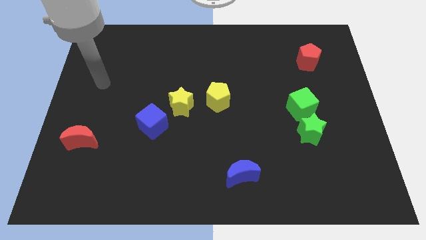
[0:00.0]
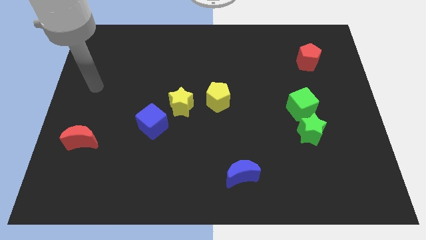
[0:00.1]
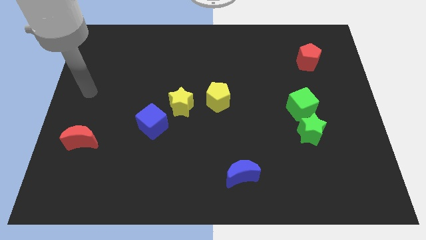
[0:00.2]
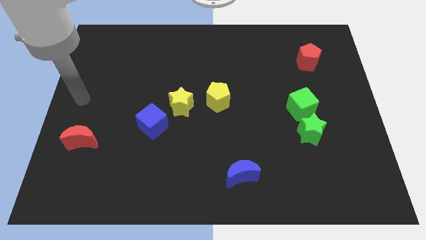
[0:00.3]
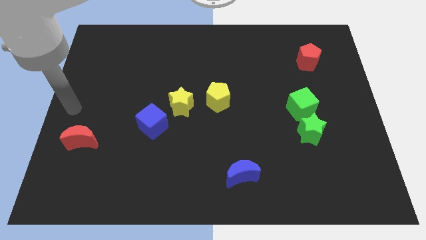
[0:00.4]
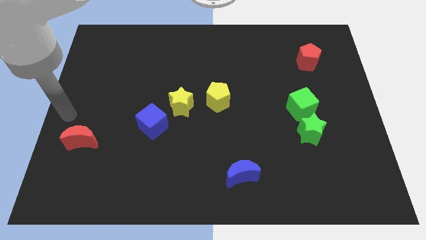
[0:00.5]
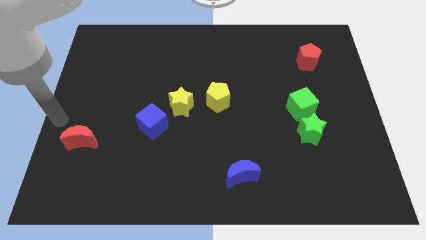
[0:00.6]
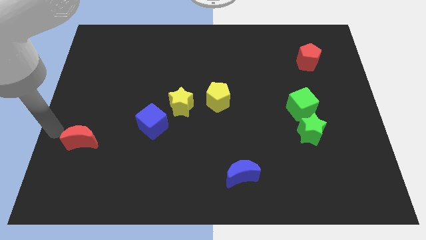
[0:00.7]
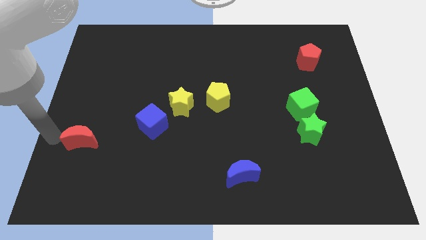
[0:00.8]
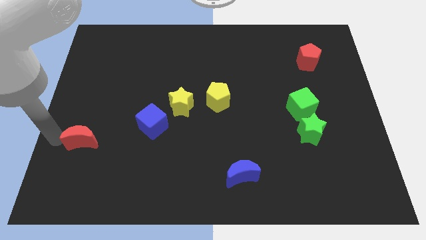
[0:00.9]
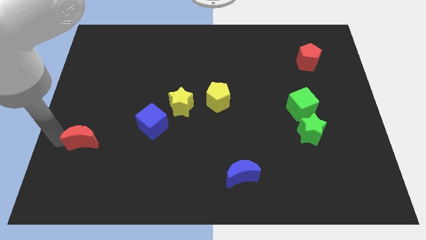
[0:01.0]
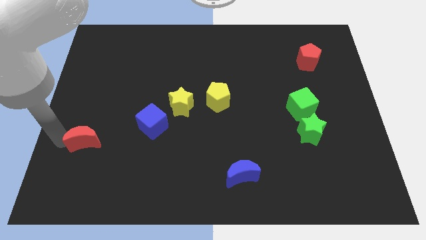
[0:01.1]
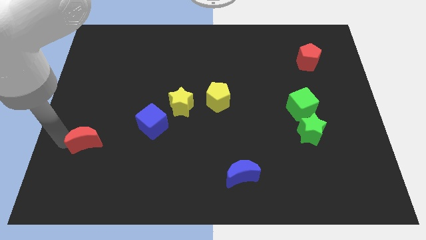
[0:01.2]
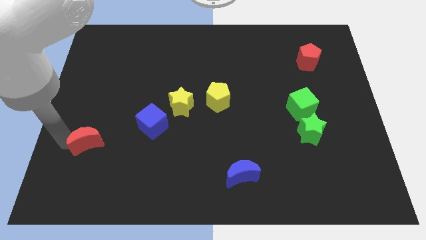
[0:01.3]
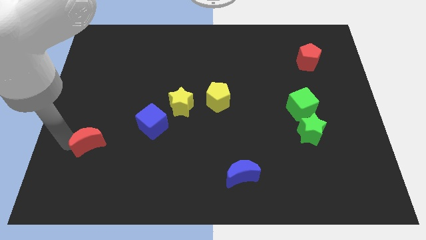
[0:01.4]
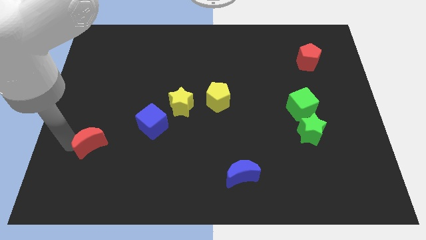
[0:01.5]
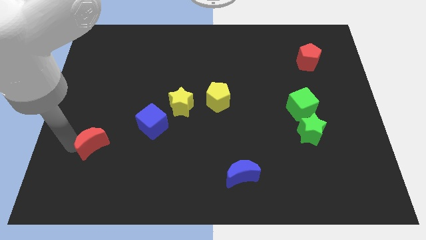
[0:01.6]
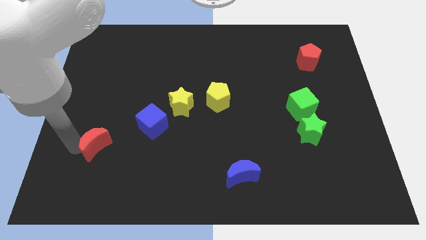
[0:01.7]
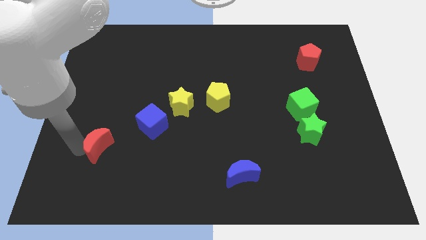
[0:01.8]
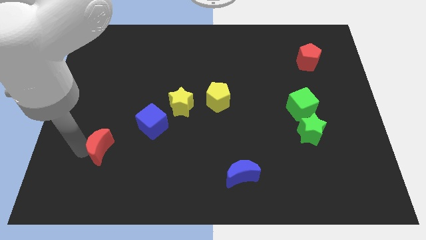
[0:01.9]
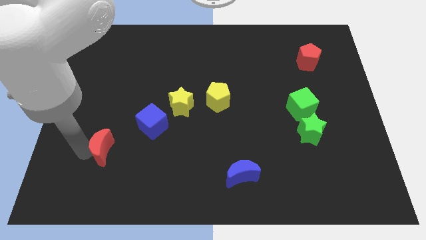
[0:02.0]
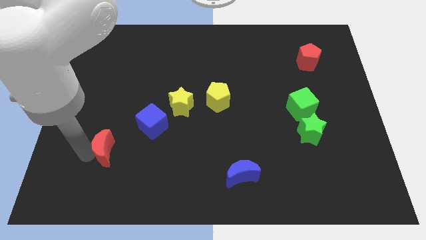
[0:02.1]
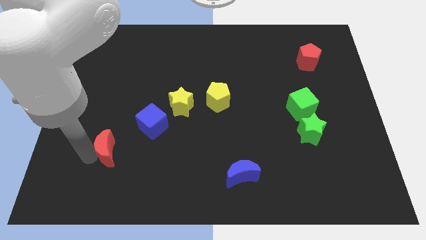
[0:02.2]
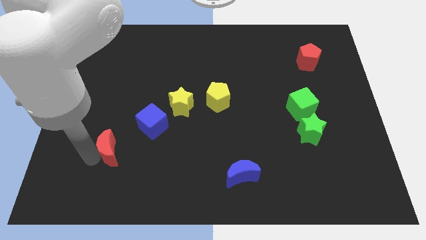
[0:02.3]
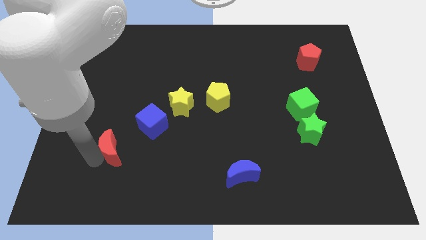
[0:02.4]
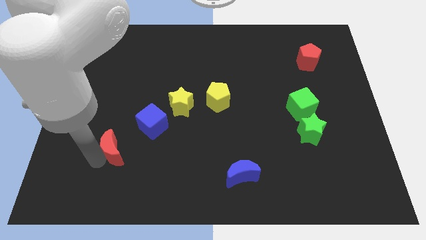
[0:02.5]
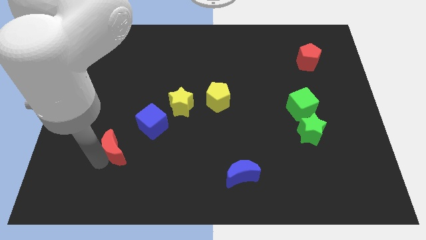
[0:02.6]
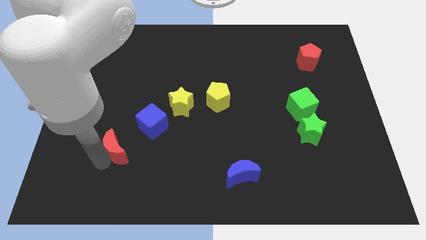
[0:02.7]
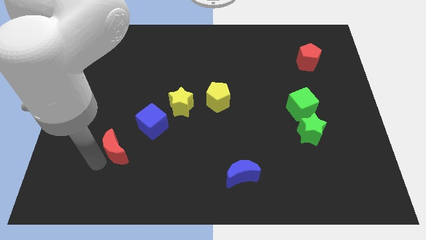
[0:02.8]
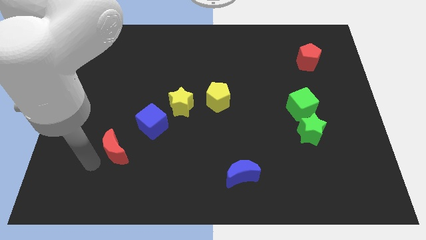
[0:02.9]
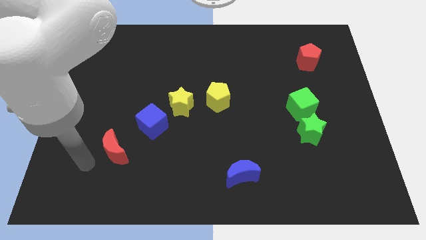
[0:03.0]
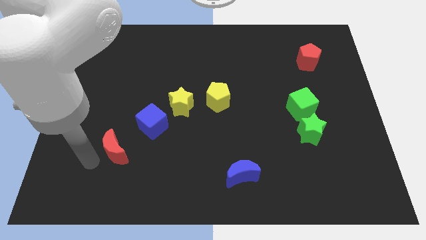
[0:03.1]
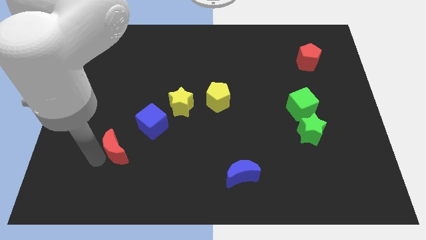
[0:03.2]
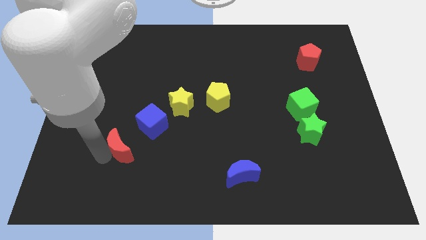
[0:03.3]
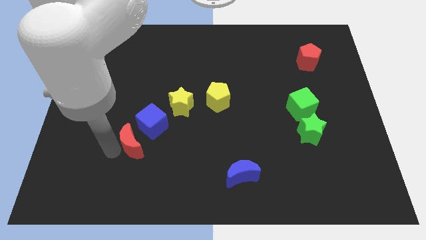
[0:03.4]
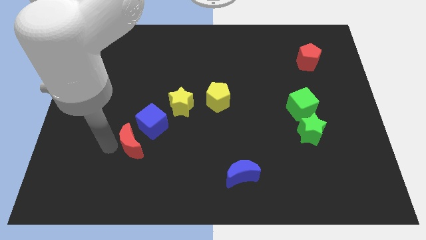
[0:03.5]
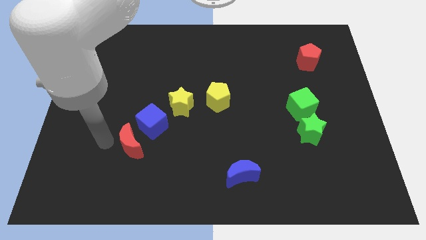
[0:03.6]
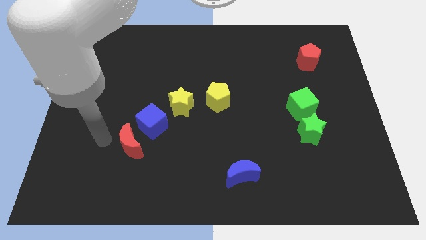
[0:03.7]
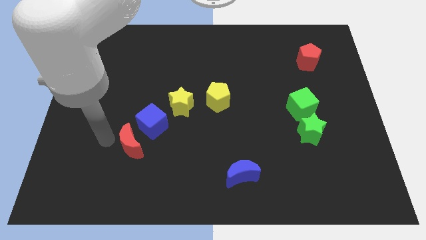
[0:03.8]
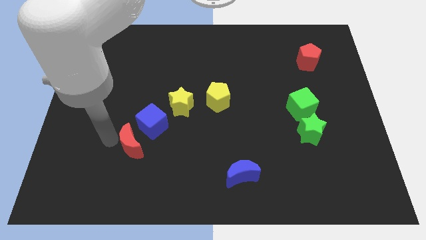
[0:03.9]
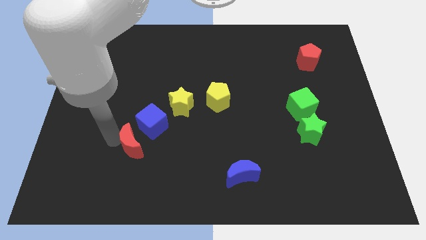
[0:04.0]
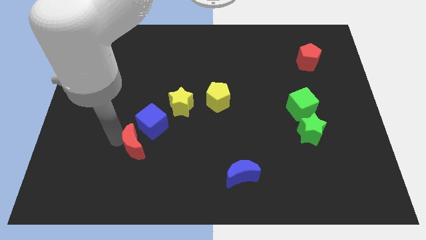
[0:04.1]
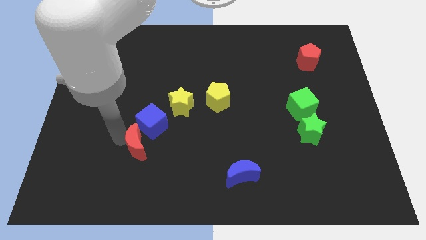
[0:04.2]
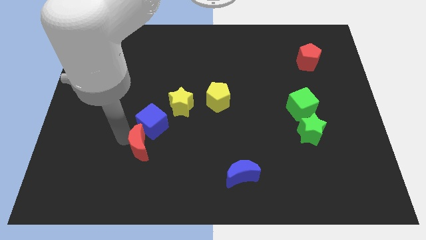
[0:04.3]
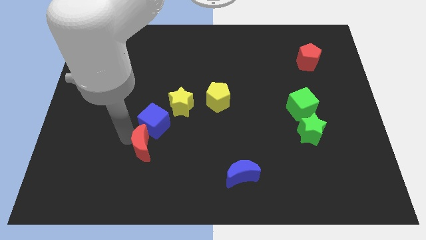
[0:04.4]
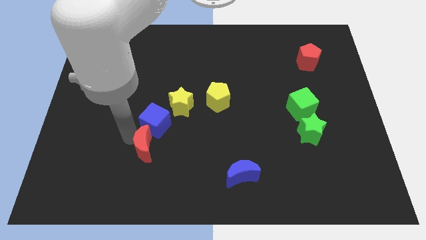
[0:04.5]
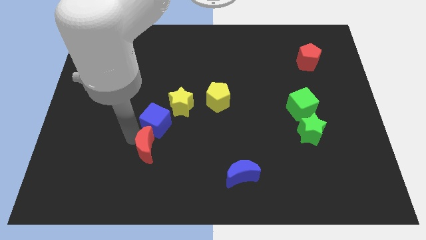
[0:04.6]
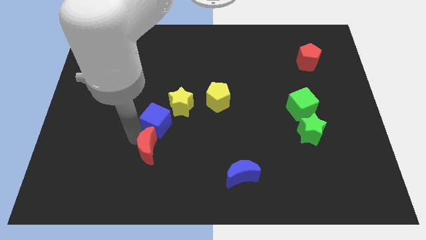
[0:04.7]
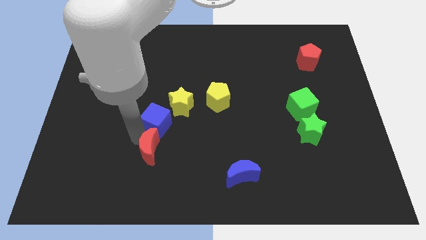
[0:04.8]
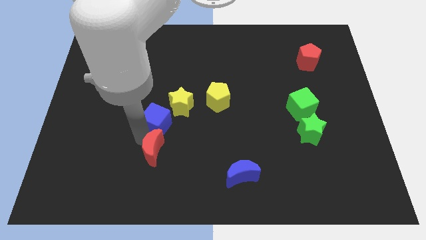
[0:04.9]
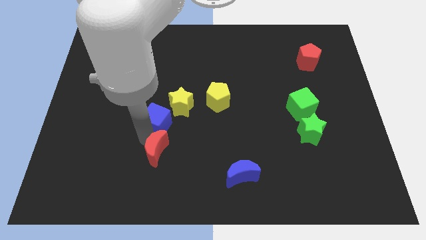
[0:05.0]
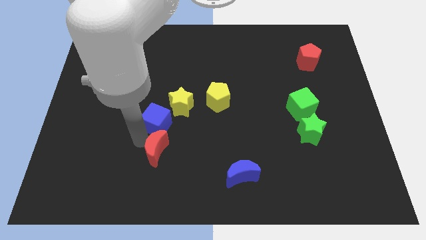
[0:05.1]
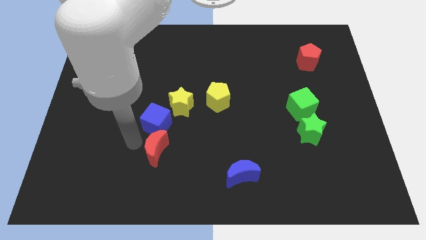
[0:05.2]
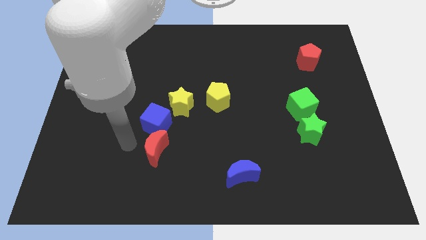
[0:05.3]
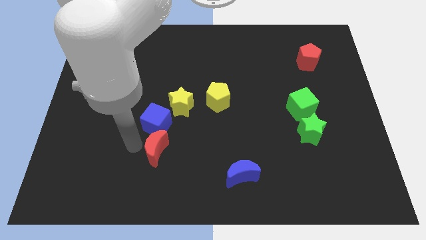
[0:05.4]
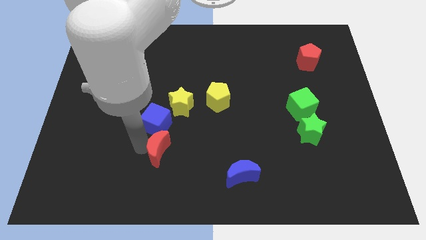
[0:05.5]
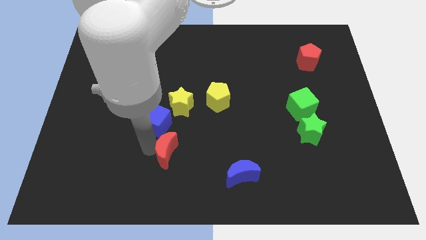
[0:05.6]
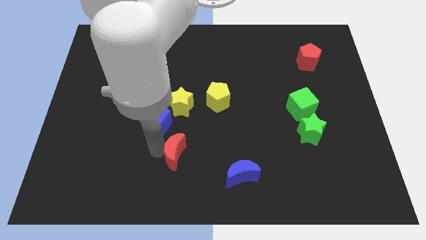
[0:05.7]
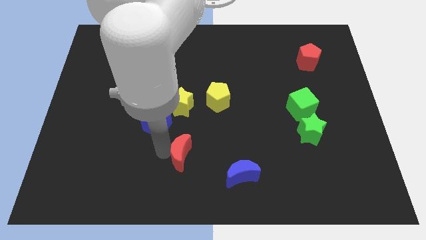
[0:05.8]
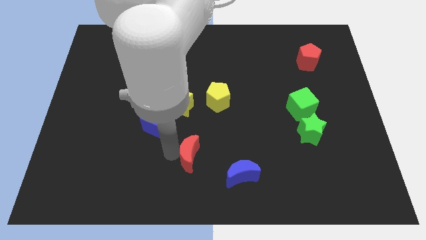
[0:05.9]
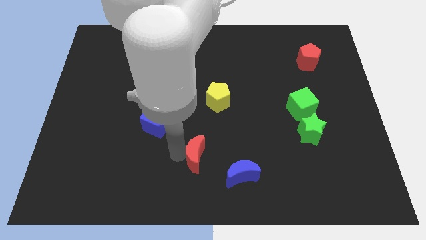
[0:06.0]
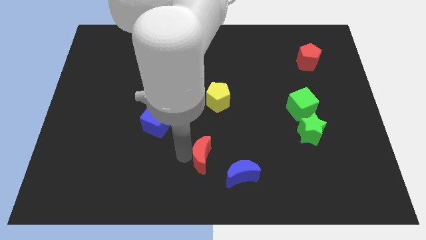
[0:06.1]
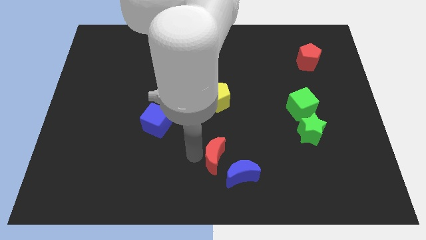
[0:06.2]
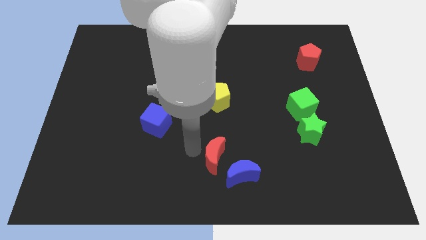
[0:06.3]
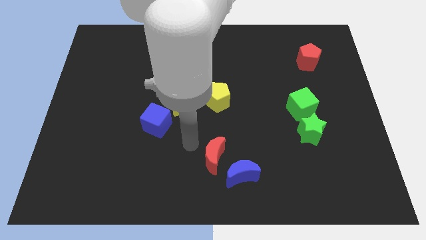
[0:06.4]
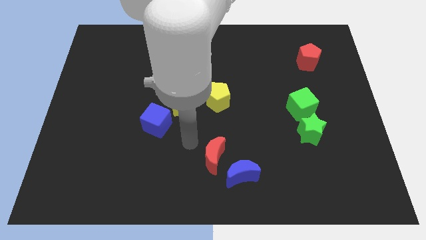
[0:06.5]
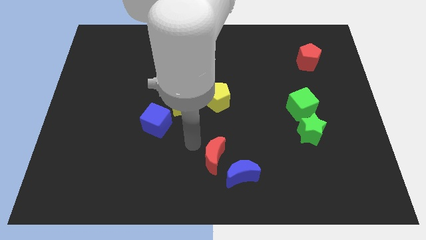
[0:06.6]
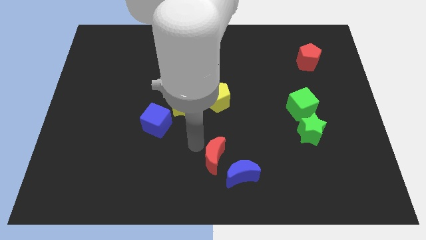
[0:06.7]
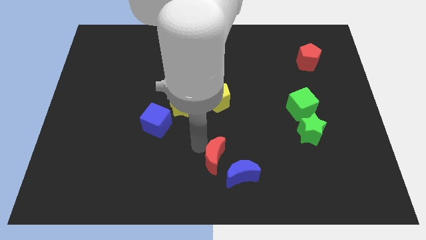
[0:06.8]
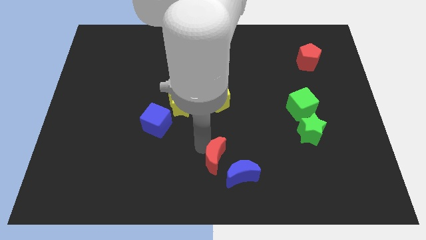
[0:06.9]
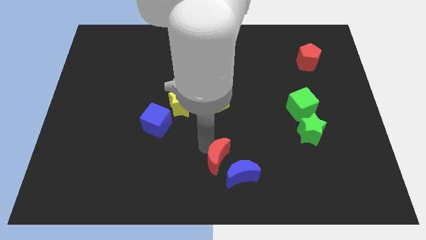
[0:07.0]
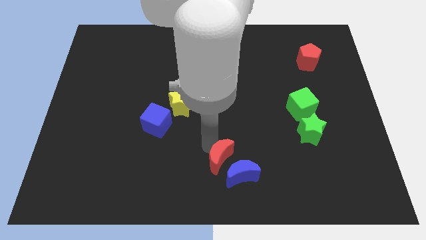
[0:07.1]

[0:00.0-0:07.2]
slide the red moon to the blue moon
